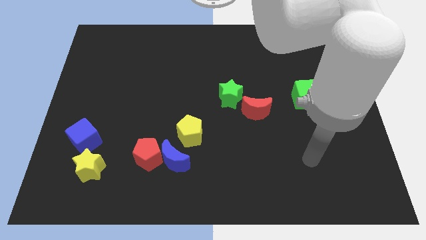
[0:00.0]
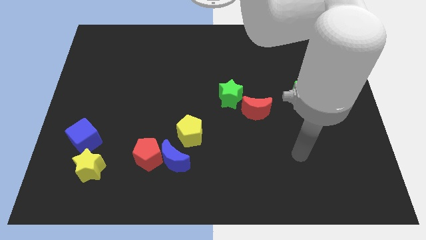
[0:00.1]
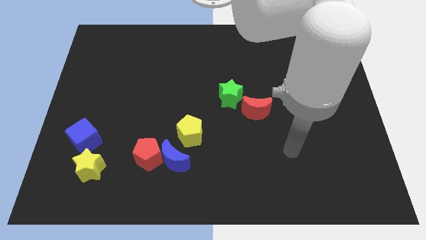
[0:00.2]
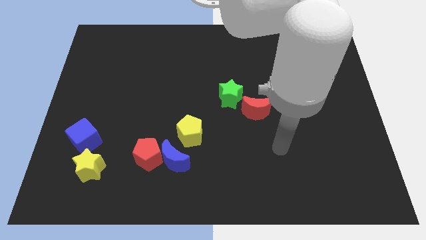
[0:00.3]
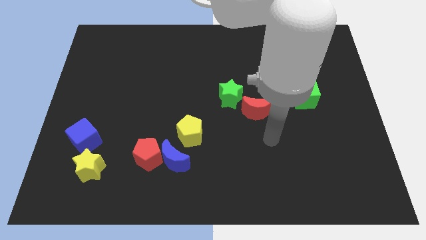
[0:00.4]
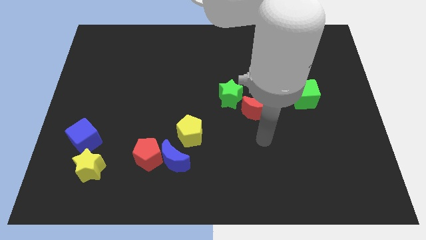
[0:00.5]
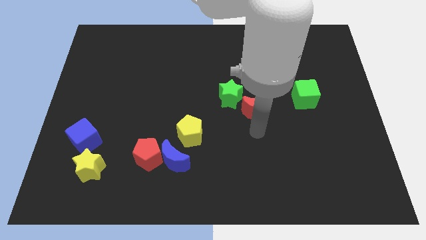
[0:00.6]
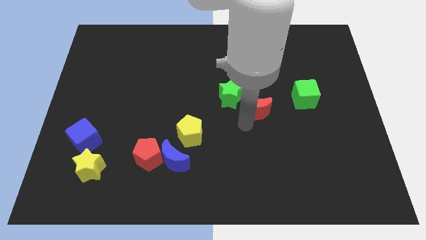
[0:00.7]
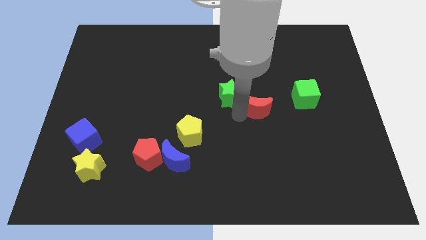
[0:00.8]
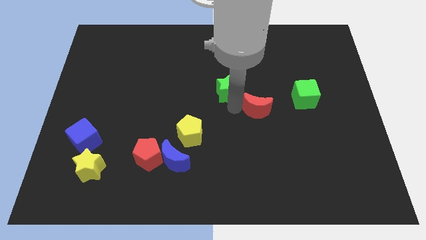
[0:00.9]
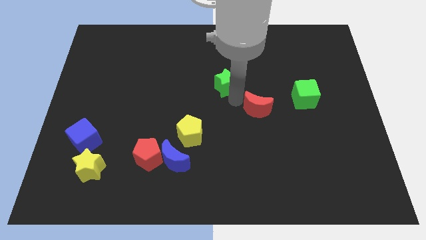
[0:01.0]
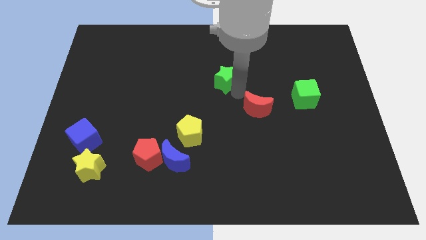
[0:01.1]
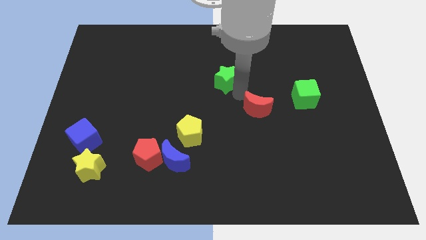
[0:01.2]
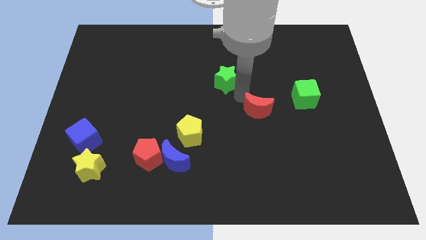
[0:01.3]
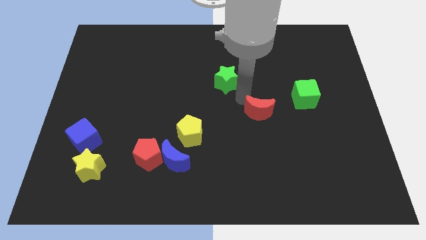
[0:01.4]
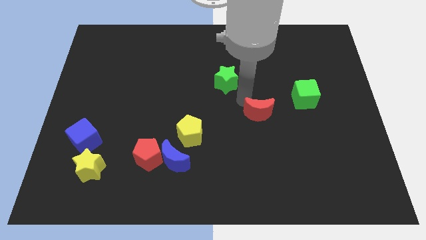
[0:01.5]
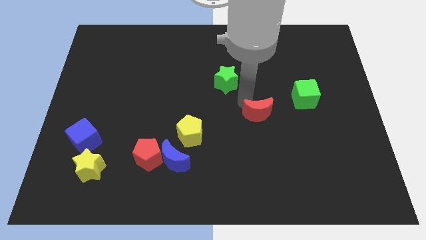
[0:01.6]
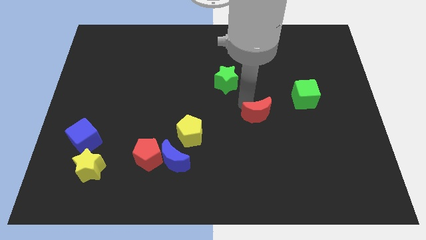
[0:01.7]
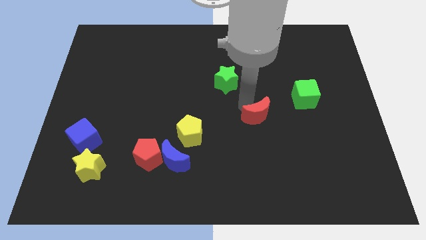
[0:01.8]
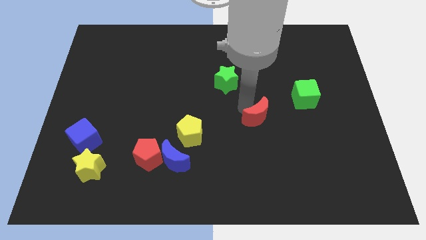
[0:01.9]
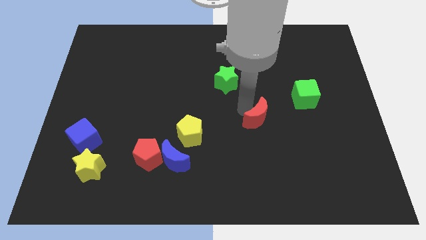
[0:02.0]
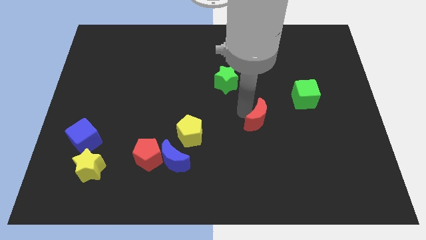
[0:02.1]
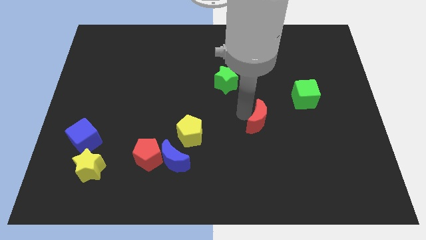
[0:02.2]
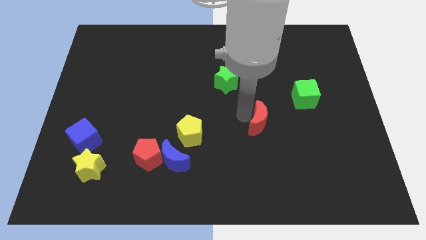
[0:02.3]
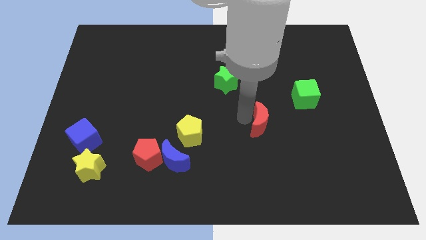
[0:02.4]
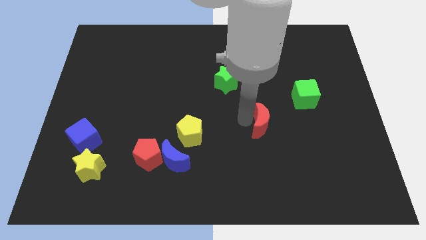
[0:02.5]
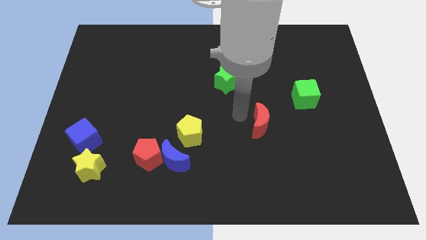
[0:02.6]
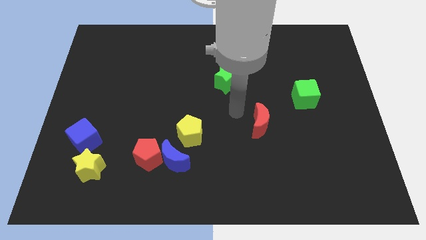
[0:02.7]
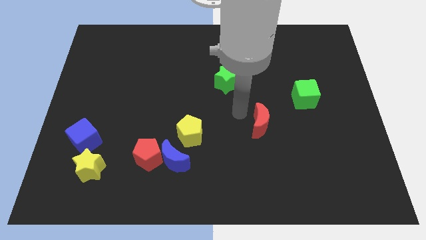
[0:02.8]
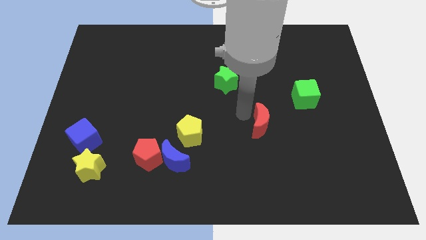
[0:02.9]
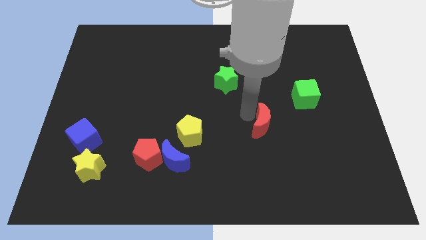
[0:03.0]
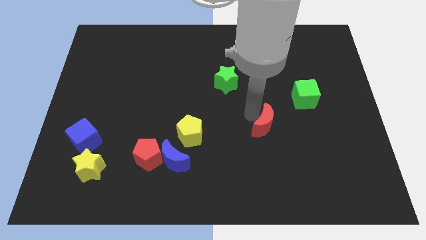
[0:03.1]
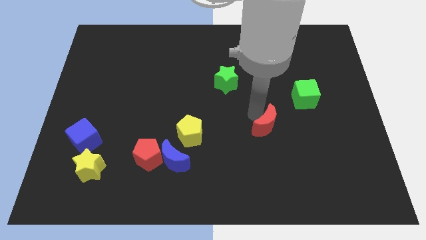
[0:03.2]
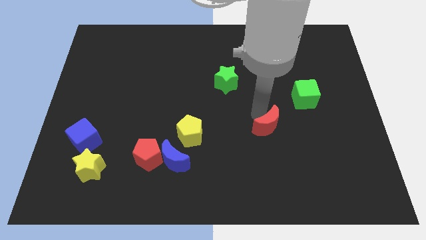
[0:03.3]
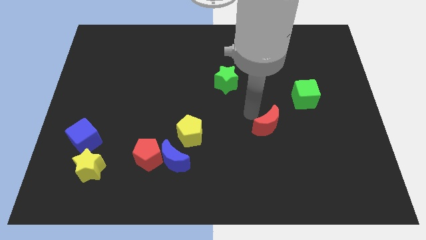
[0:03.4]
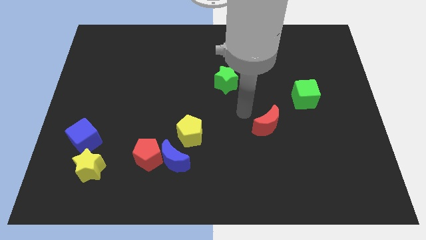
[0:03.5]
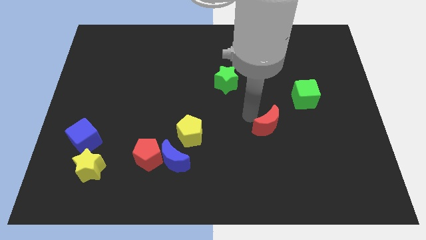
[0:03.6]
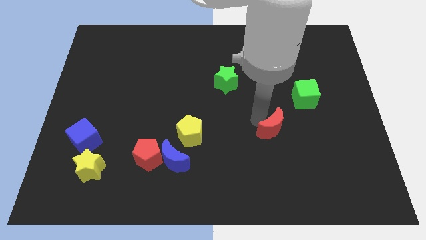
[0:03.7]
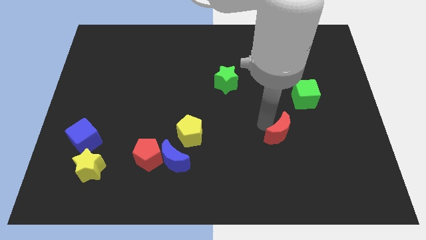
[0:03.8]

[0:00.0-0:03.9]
move the red moon down and right somewhat

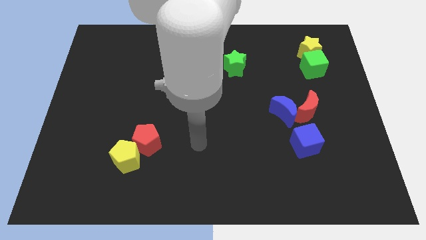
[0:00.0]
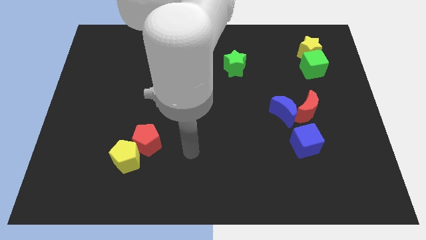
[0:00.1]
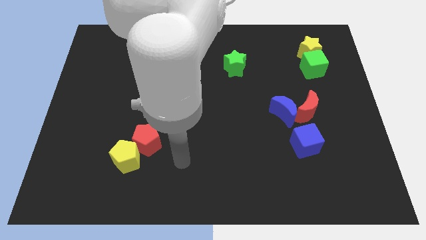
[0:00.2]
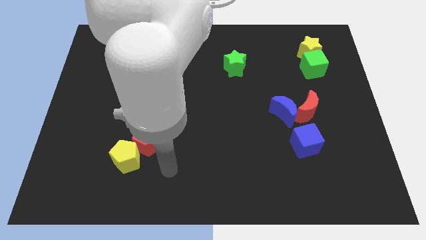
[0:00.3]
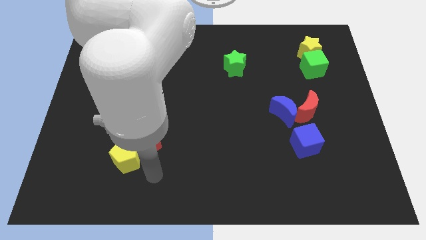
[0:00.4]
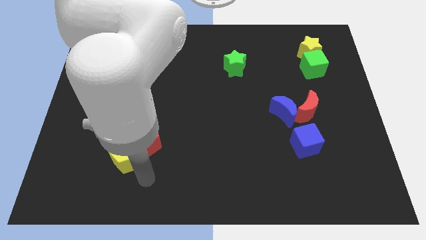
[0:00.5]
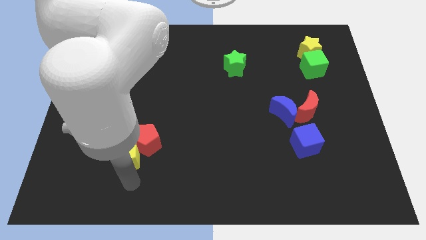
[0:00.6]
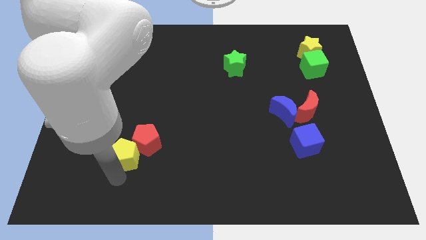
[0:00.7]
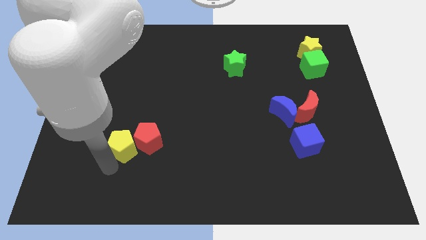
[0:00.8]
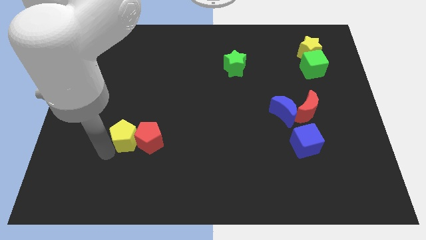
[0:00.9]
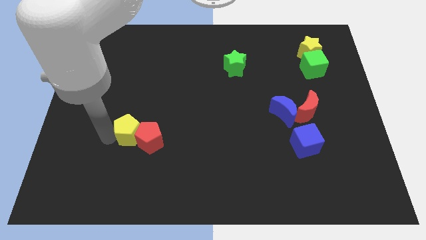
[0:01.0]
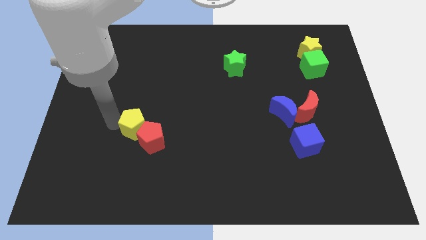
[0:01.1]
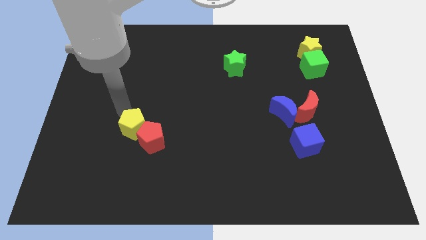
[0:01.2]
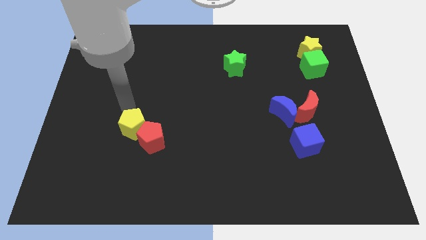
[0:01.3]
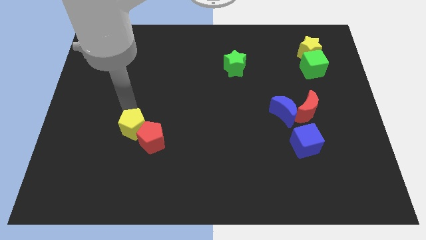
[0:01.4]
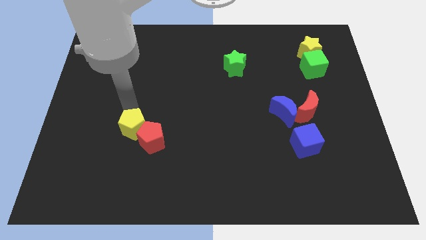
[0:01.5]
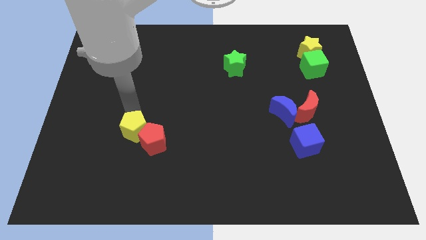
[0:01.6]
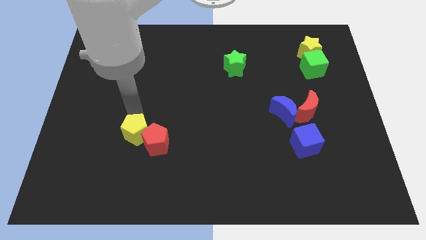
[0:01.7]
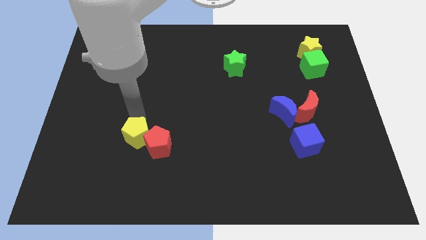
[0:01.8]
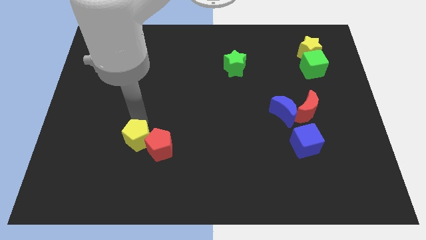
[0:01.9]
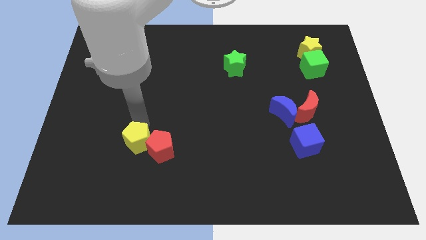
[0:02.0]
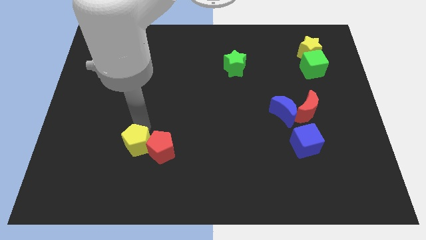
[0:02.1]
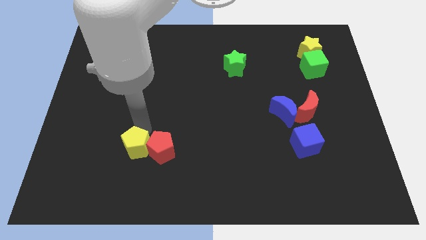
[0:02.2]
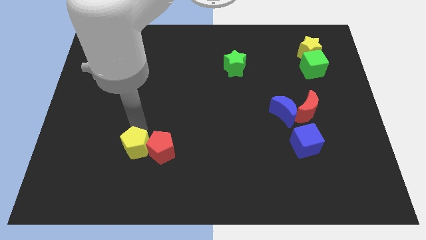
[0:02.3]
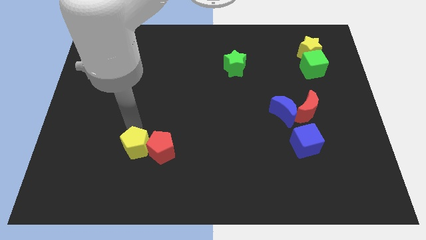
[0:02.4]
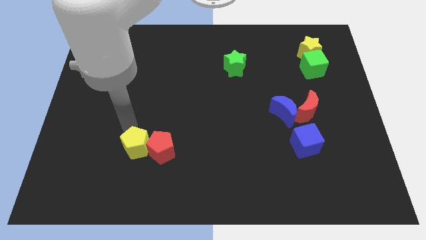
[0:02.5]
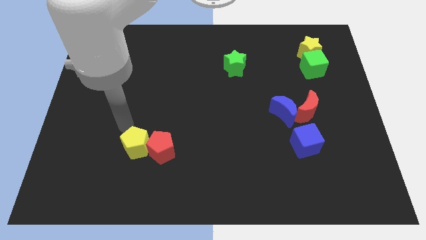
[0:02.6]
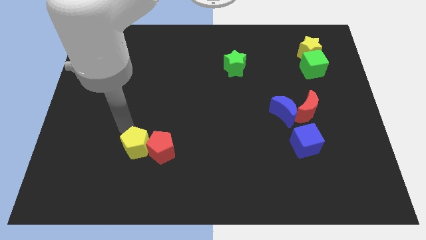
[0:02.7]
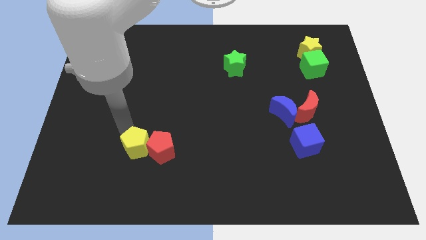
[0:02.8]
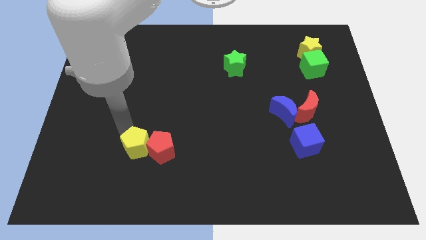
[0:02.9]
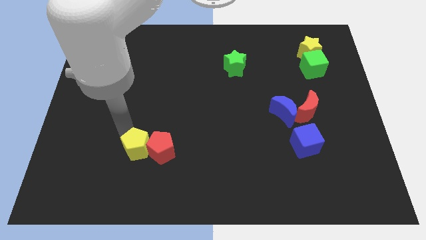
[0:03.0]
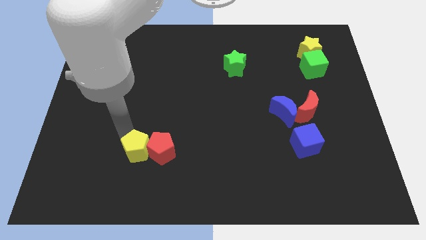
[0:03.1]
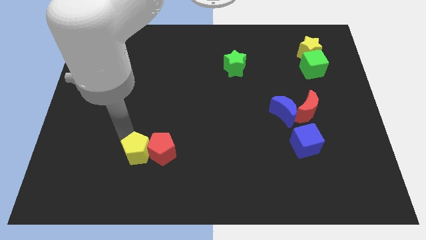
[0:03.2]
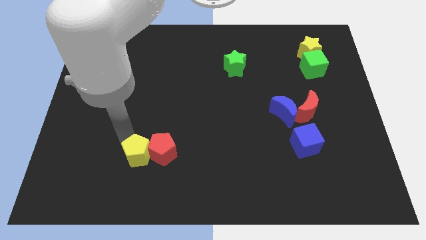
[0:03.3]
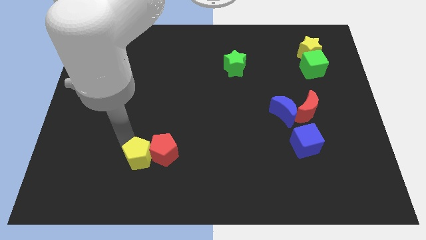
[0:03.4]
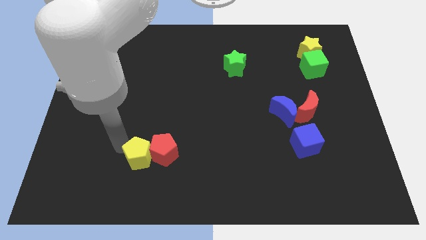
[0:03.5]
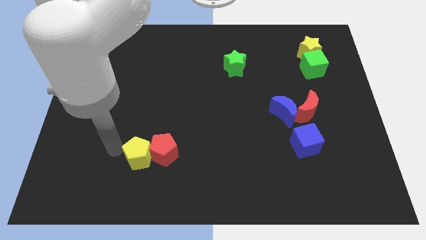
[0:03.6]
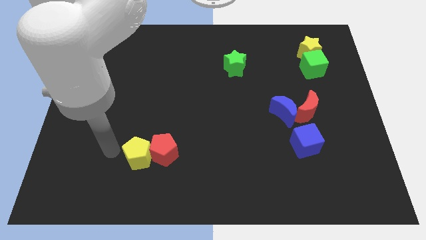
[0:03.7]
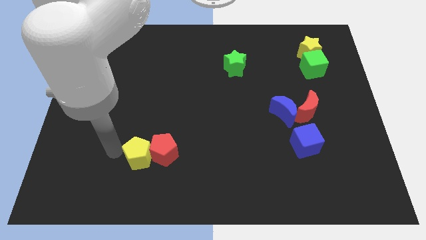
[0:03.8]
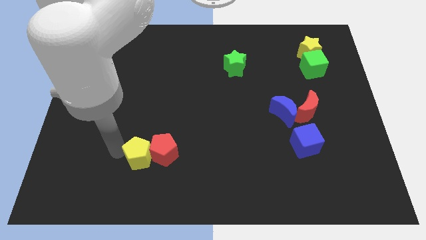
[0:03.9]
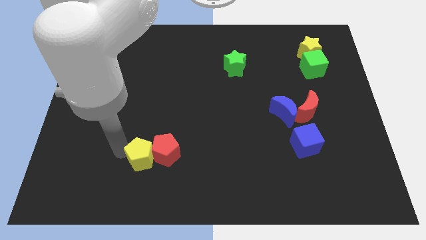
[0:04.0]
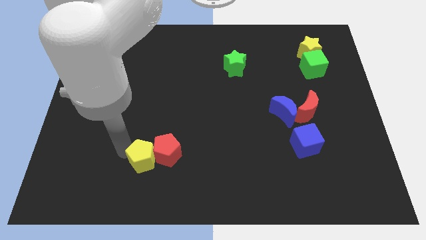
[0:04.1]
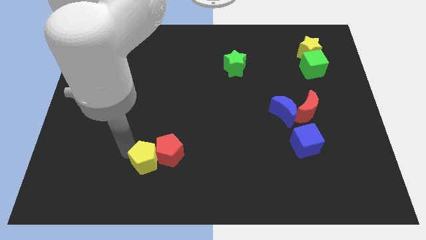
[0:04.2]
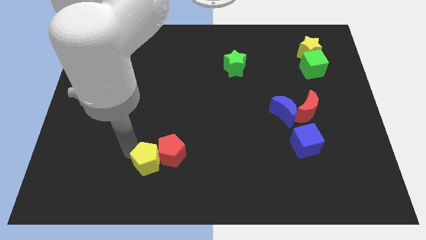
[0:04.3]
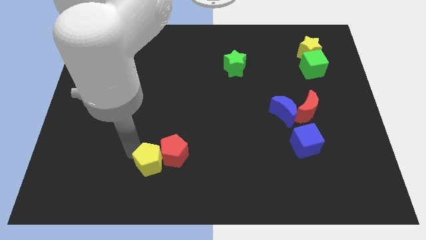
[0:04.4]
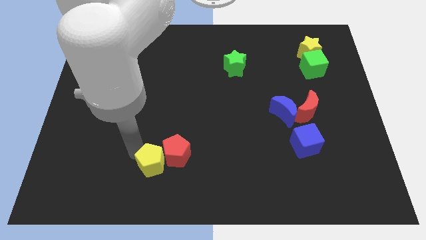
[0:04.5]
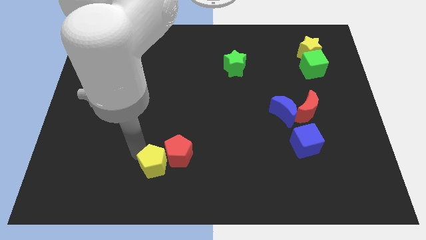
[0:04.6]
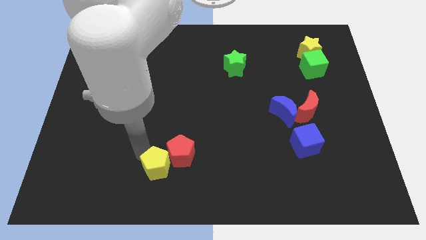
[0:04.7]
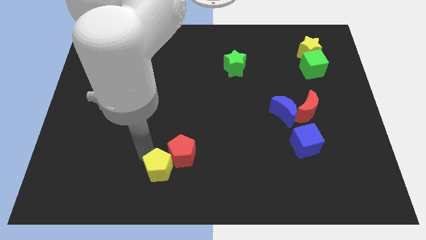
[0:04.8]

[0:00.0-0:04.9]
slightly slide the yellow pentagon right
